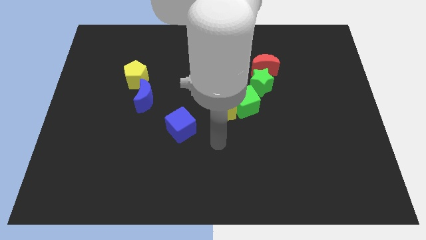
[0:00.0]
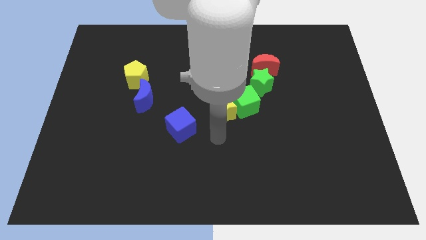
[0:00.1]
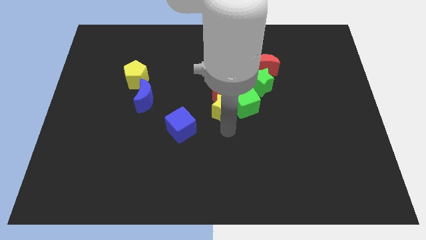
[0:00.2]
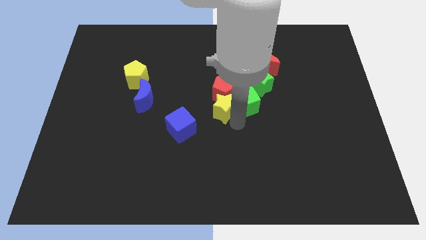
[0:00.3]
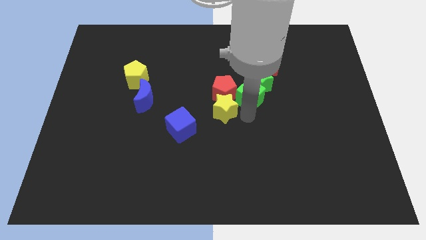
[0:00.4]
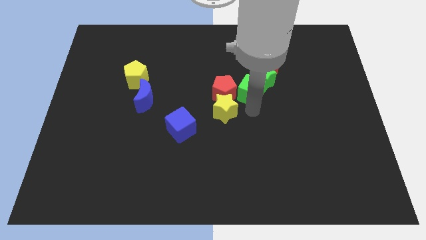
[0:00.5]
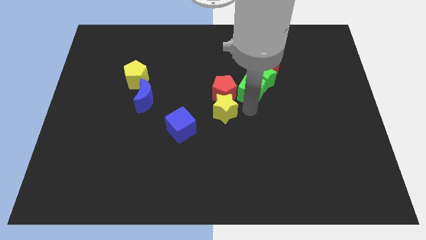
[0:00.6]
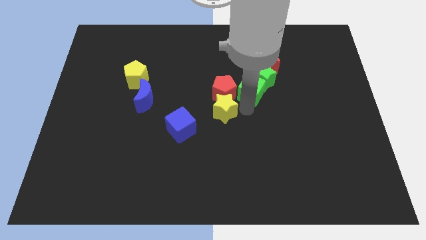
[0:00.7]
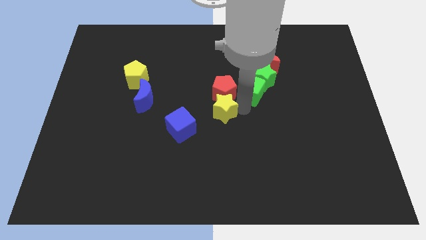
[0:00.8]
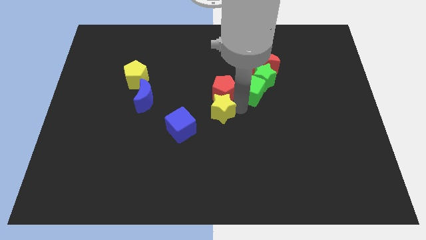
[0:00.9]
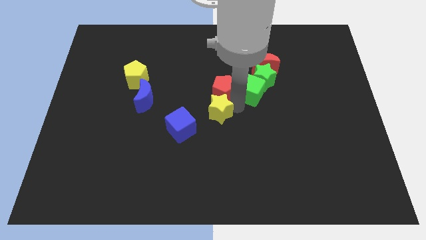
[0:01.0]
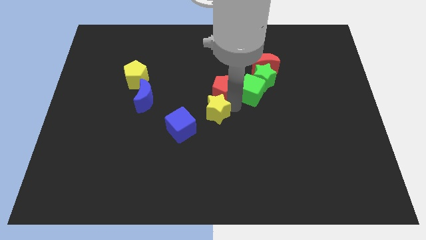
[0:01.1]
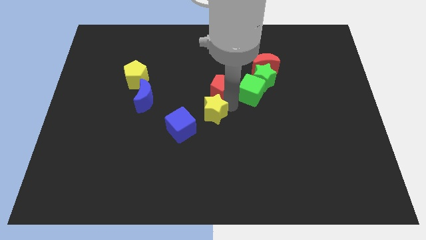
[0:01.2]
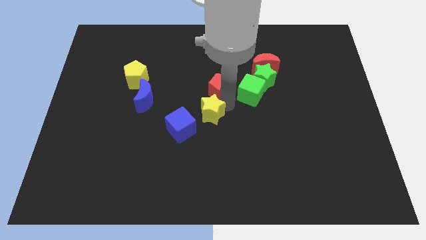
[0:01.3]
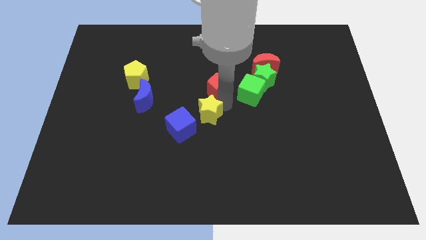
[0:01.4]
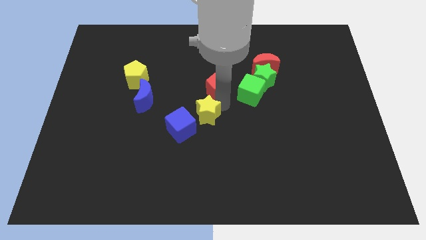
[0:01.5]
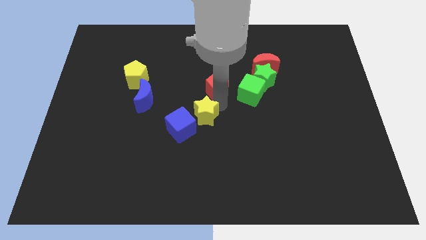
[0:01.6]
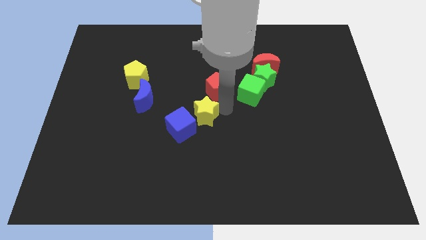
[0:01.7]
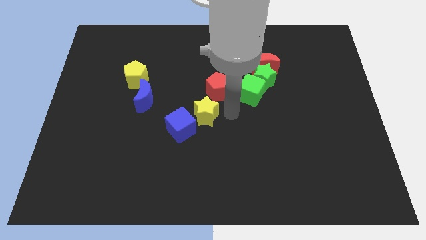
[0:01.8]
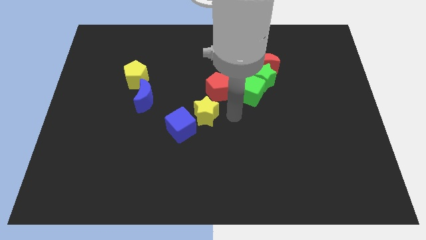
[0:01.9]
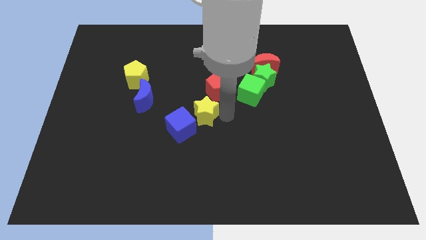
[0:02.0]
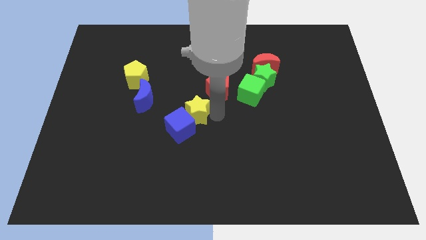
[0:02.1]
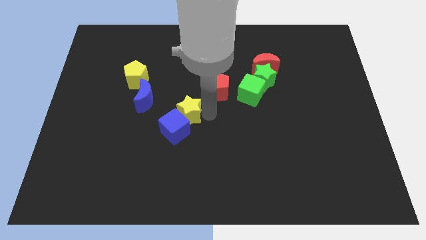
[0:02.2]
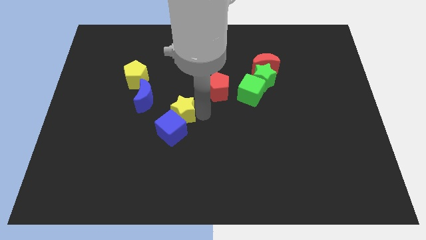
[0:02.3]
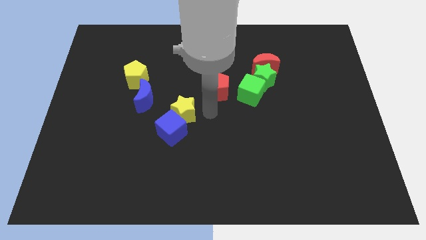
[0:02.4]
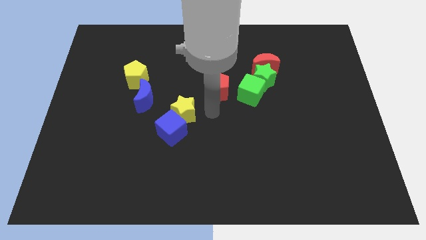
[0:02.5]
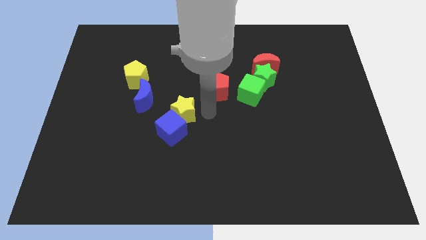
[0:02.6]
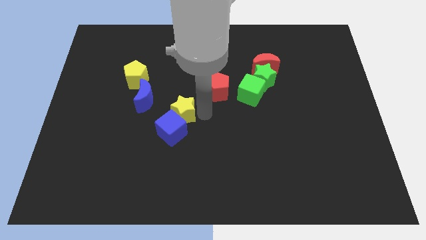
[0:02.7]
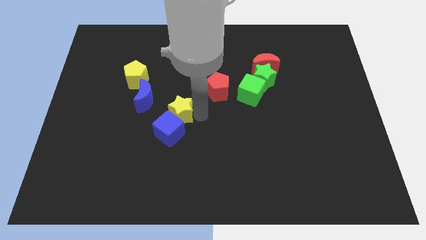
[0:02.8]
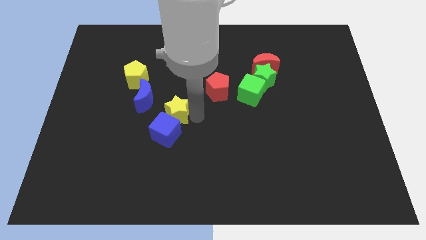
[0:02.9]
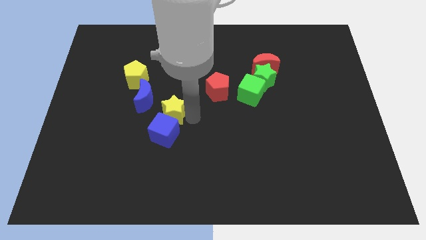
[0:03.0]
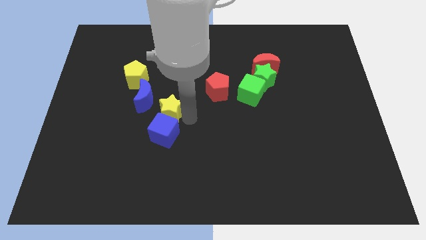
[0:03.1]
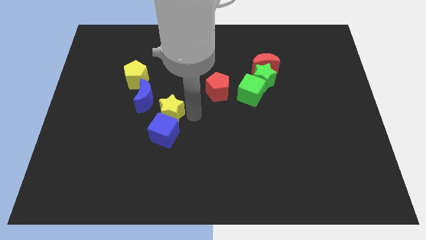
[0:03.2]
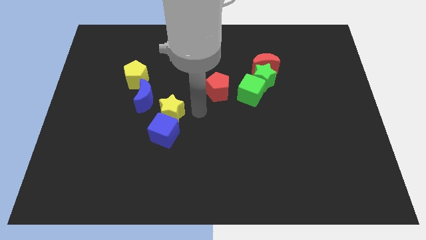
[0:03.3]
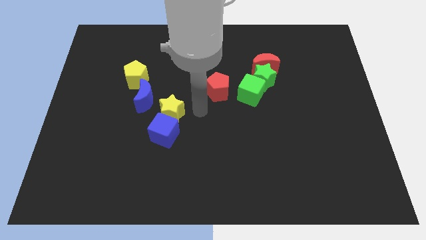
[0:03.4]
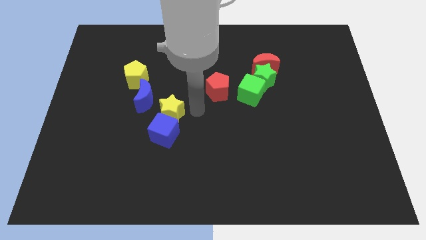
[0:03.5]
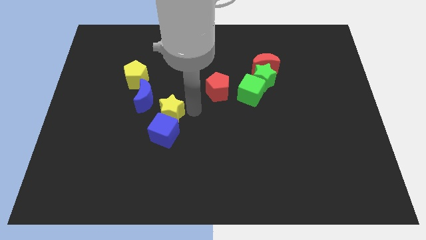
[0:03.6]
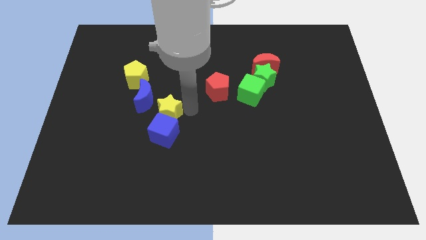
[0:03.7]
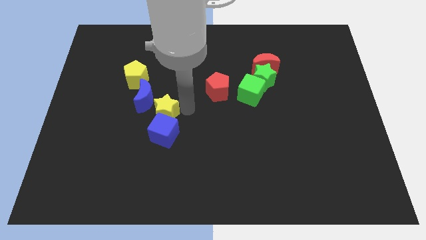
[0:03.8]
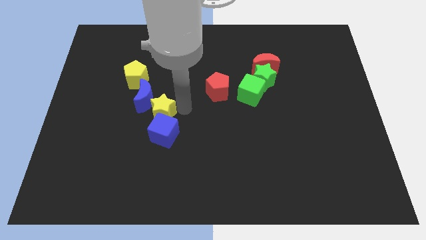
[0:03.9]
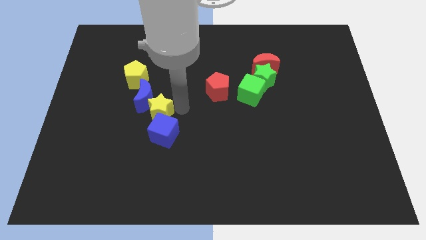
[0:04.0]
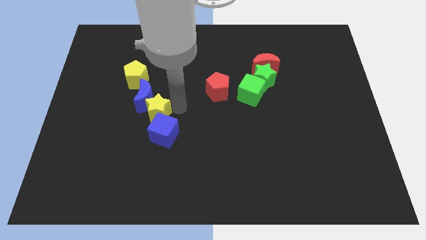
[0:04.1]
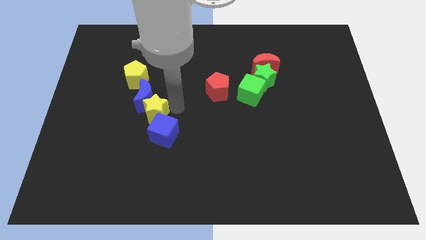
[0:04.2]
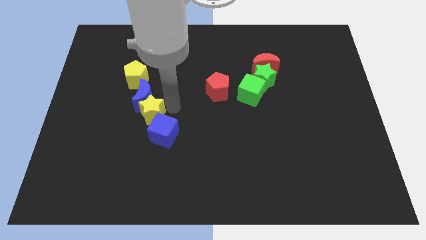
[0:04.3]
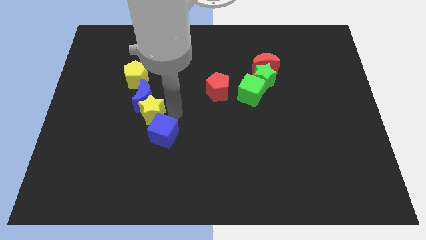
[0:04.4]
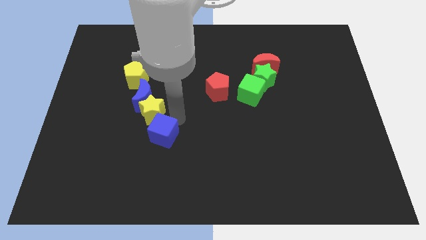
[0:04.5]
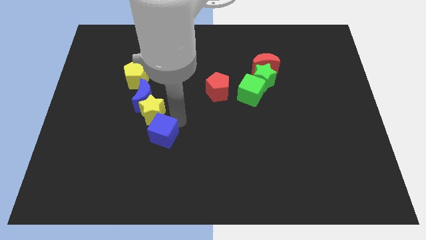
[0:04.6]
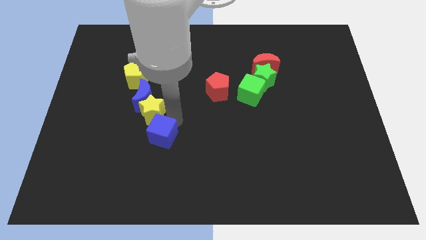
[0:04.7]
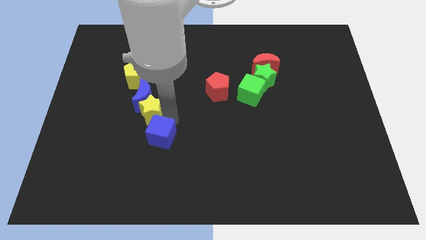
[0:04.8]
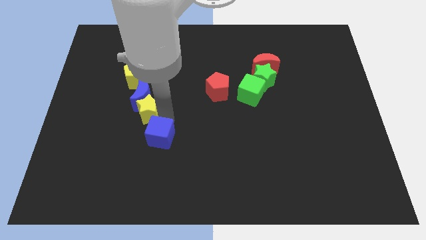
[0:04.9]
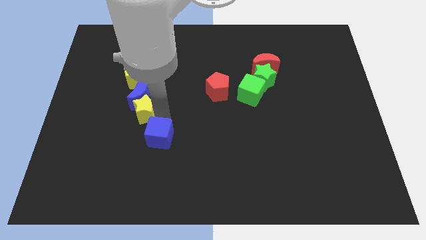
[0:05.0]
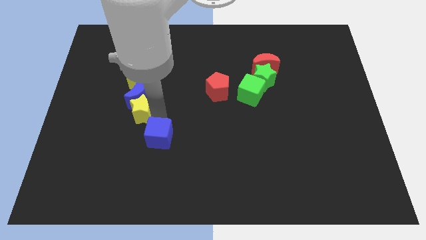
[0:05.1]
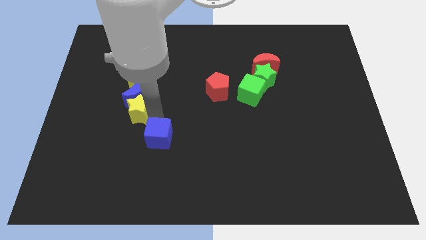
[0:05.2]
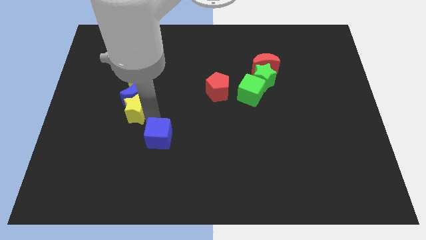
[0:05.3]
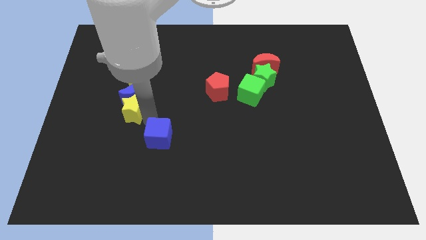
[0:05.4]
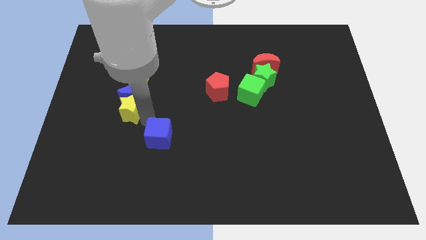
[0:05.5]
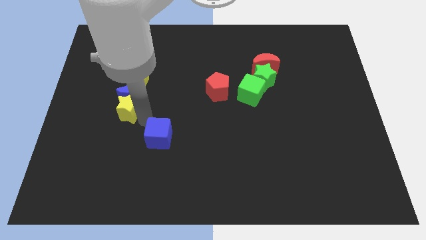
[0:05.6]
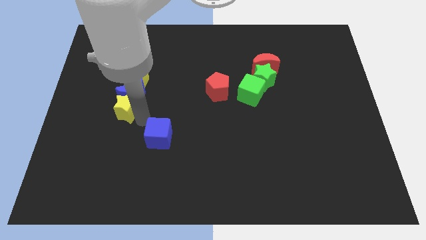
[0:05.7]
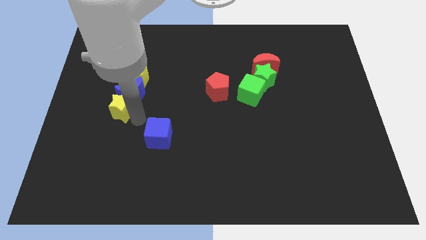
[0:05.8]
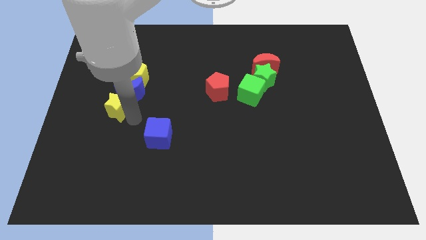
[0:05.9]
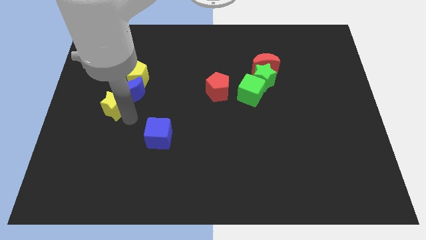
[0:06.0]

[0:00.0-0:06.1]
put the yellow star to the left of the blue moon

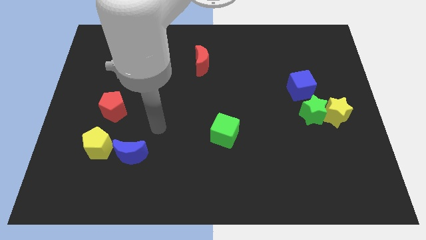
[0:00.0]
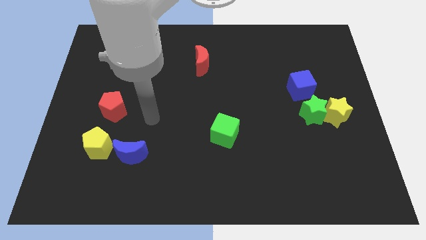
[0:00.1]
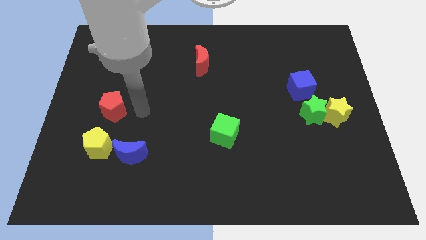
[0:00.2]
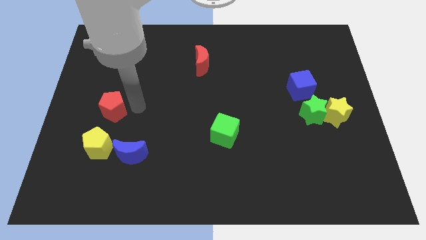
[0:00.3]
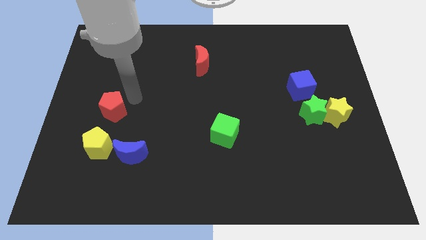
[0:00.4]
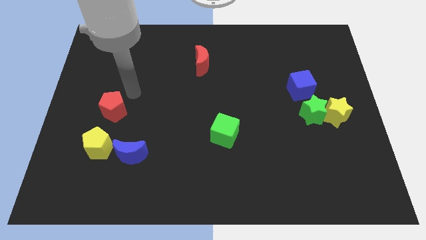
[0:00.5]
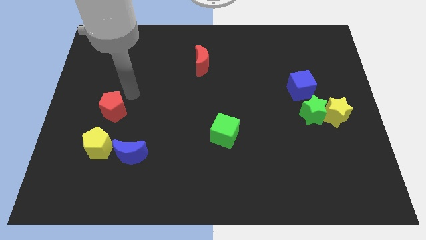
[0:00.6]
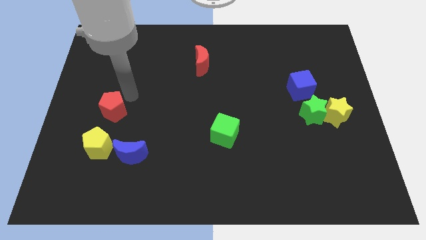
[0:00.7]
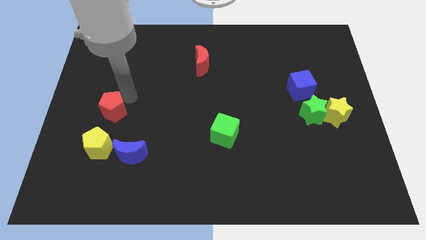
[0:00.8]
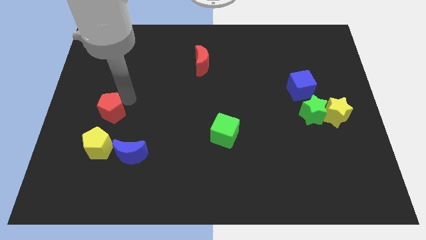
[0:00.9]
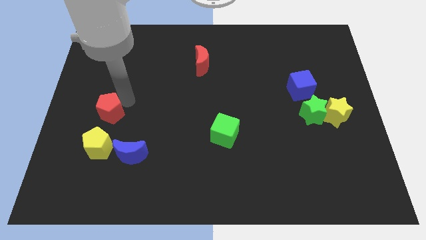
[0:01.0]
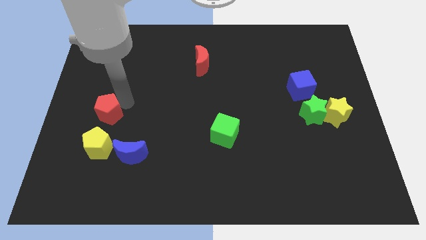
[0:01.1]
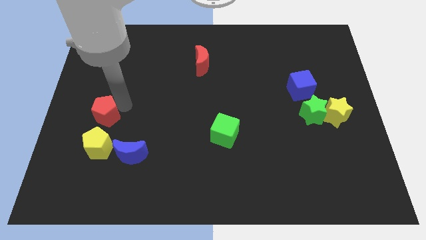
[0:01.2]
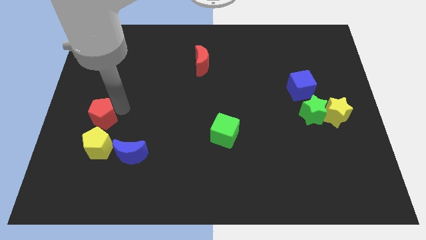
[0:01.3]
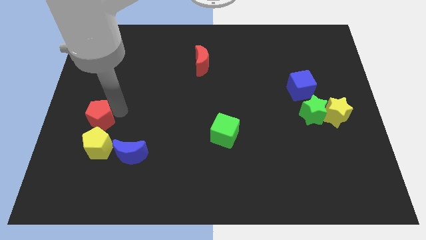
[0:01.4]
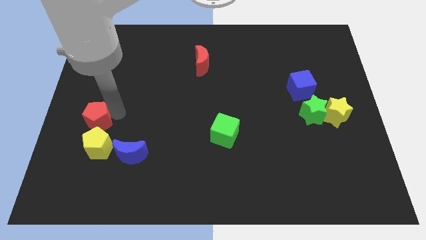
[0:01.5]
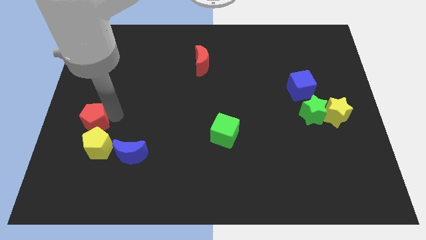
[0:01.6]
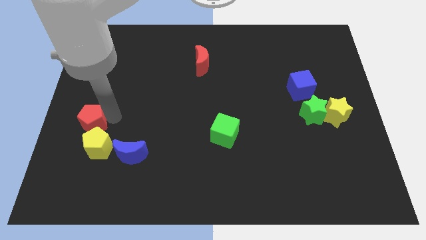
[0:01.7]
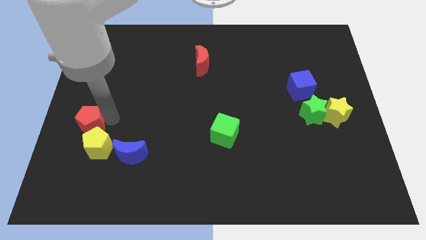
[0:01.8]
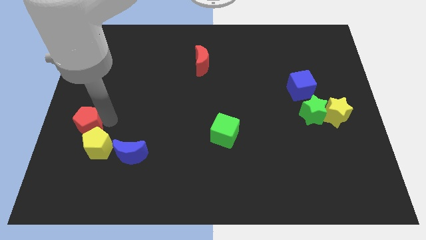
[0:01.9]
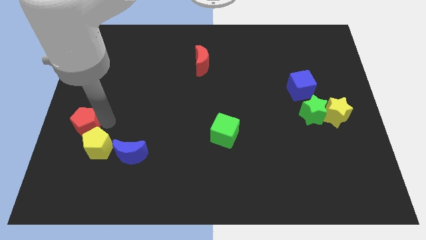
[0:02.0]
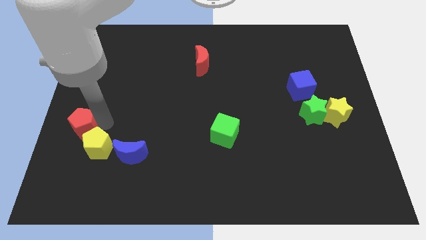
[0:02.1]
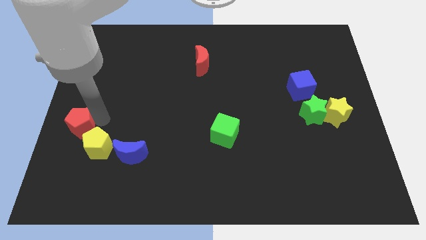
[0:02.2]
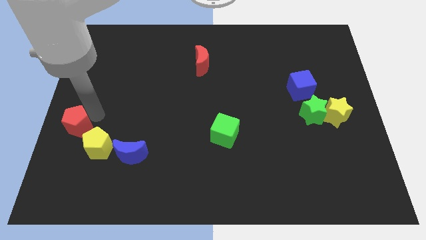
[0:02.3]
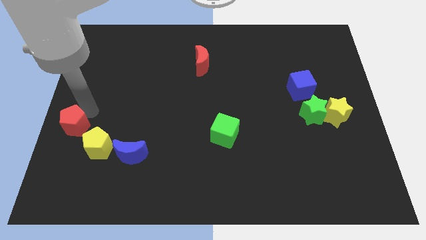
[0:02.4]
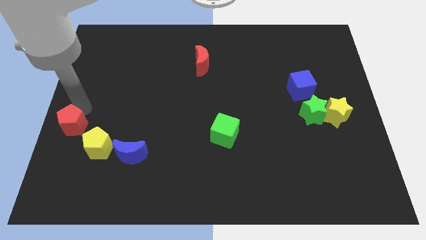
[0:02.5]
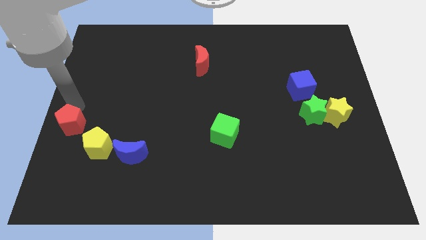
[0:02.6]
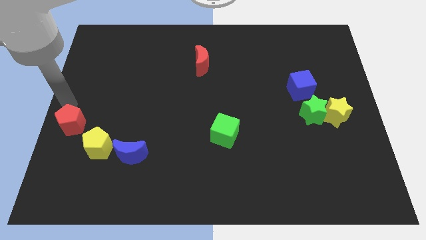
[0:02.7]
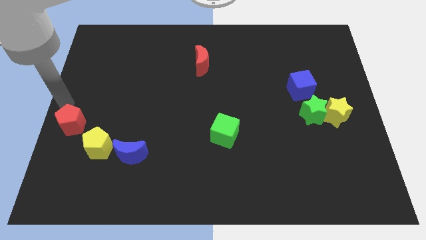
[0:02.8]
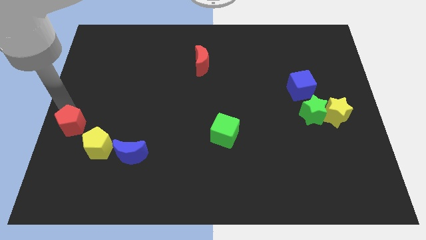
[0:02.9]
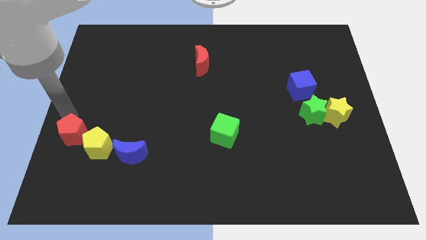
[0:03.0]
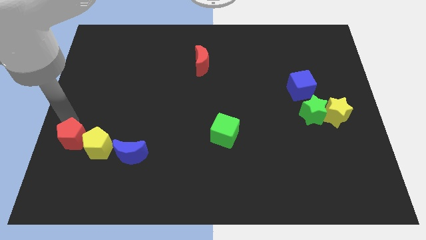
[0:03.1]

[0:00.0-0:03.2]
move the red pentagon to the left of the blue moon
